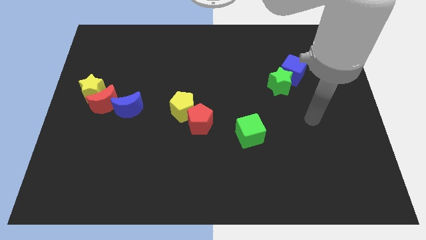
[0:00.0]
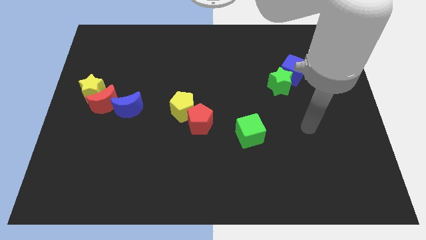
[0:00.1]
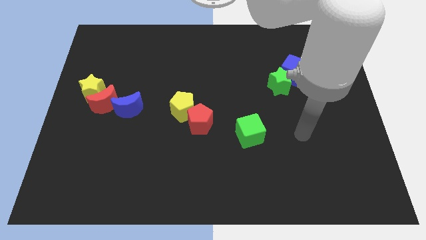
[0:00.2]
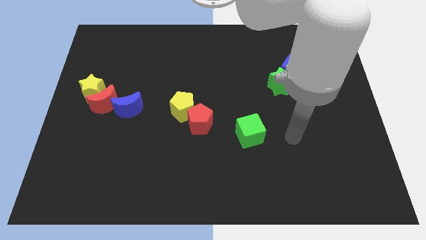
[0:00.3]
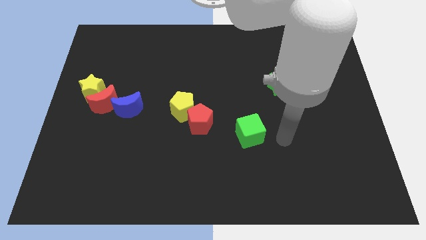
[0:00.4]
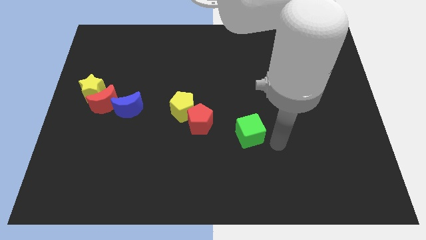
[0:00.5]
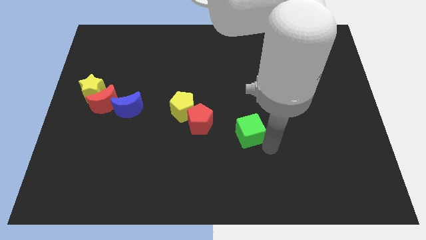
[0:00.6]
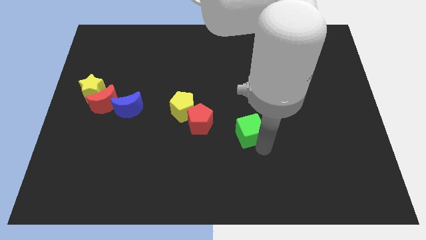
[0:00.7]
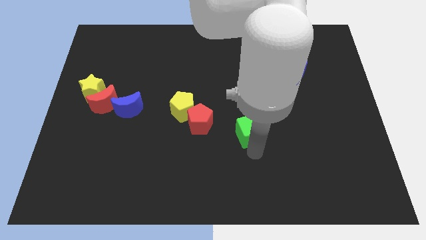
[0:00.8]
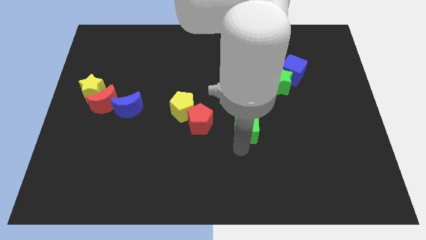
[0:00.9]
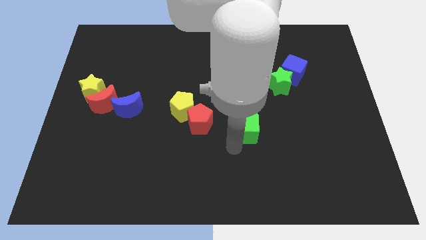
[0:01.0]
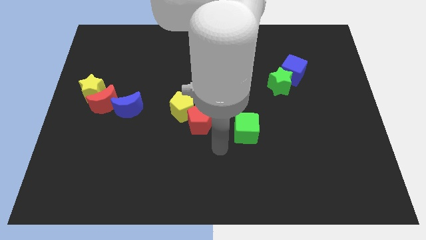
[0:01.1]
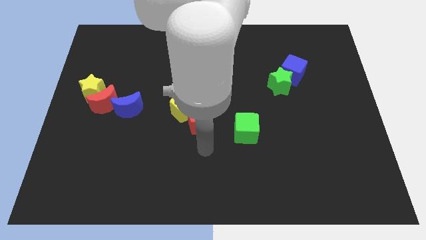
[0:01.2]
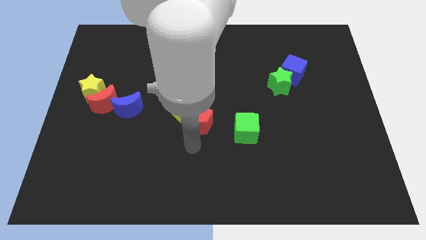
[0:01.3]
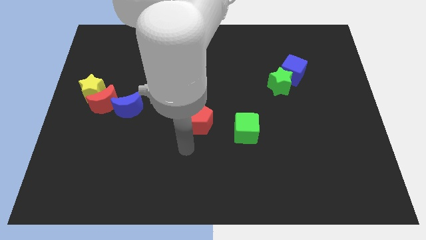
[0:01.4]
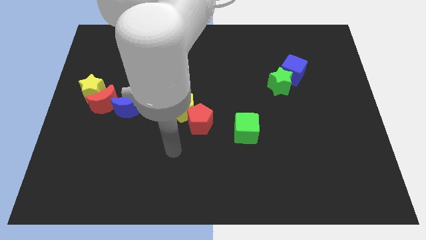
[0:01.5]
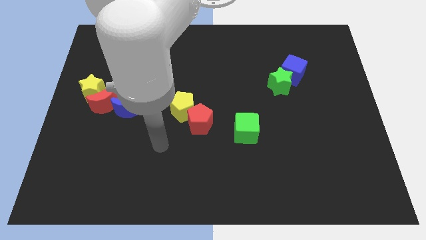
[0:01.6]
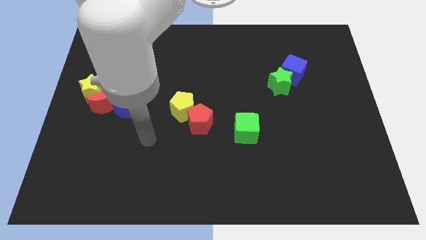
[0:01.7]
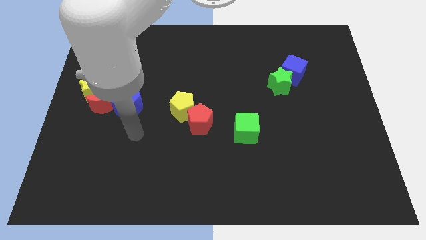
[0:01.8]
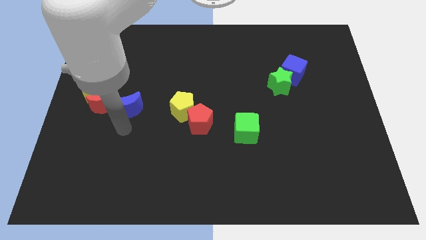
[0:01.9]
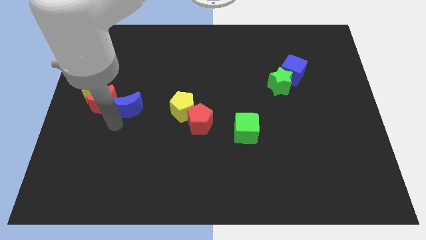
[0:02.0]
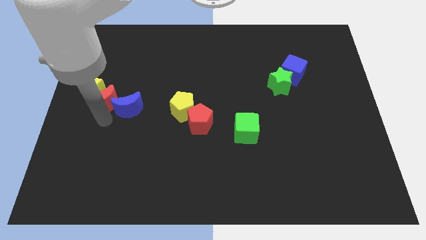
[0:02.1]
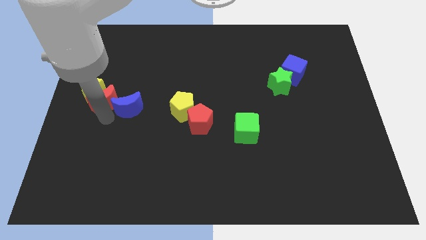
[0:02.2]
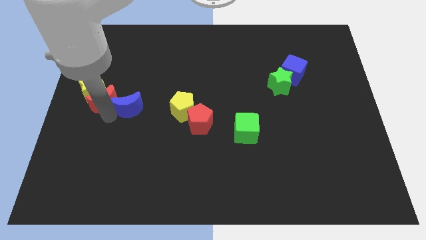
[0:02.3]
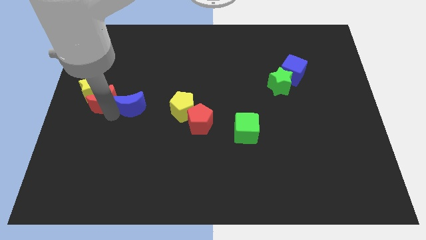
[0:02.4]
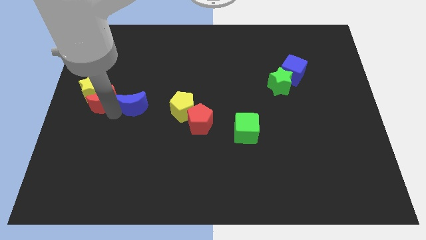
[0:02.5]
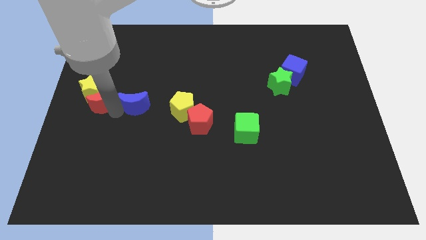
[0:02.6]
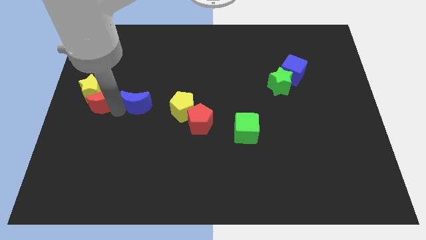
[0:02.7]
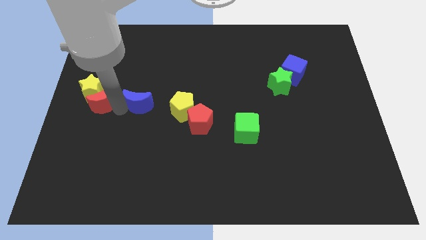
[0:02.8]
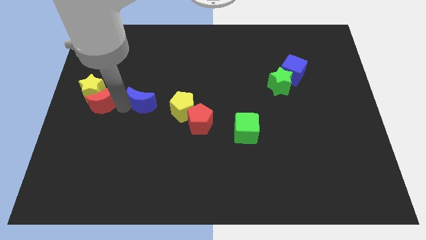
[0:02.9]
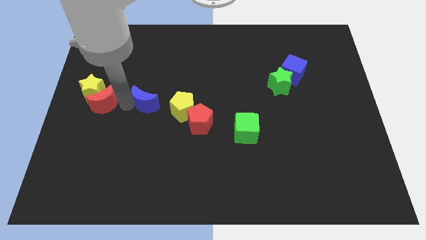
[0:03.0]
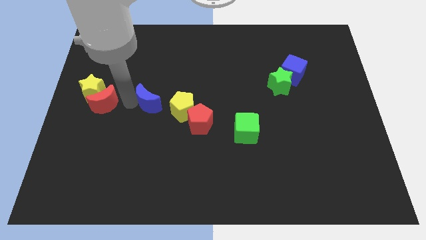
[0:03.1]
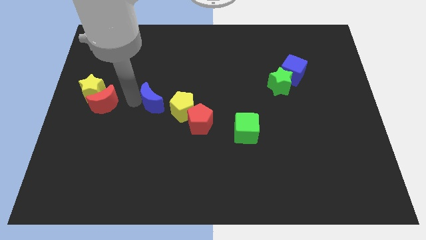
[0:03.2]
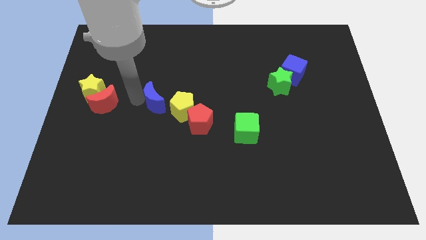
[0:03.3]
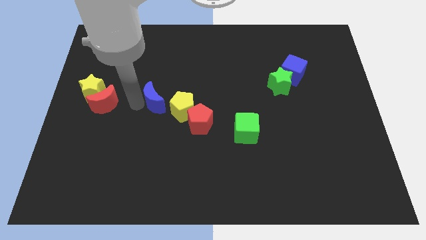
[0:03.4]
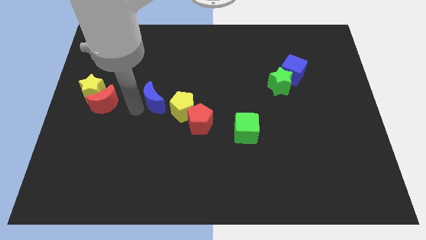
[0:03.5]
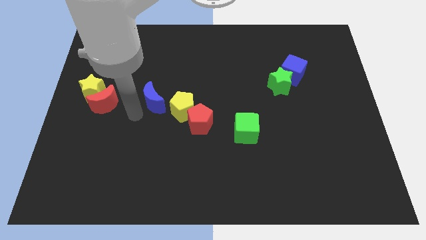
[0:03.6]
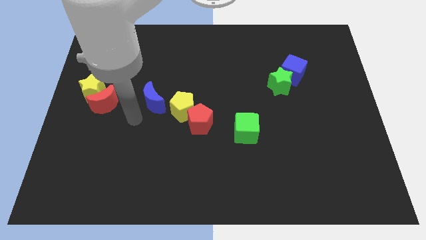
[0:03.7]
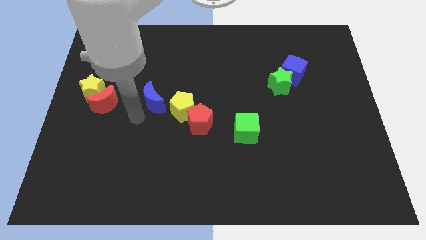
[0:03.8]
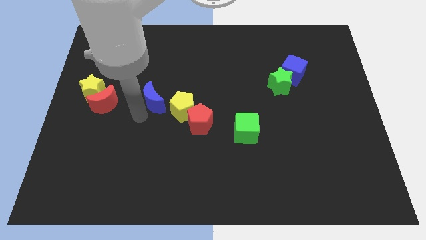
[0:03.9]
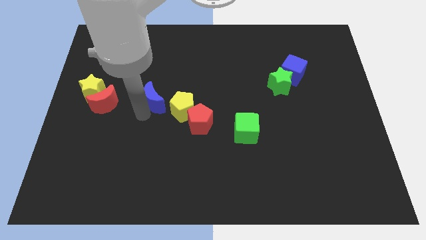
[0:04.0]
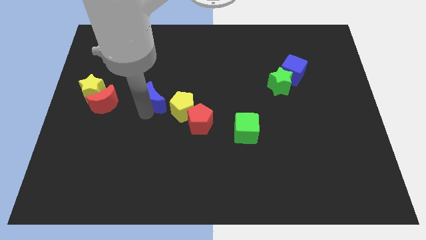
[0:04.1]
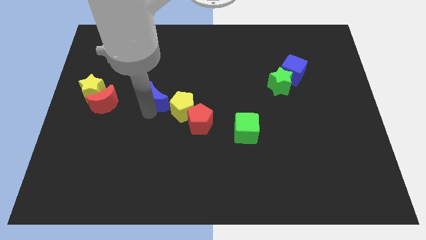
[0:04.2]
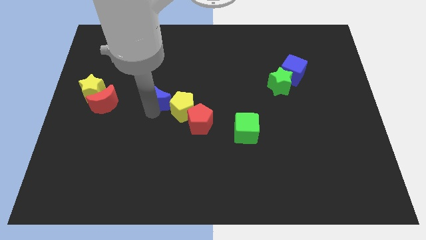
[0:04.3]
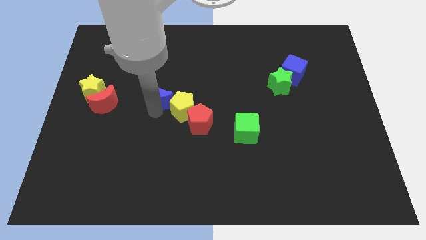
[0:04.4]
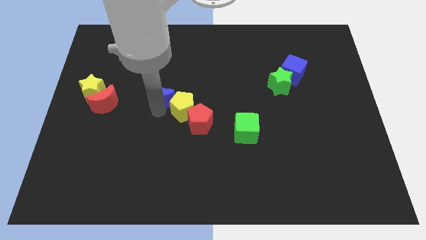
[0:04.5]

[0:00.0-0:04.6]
push the blue moon diagonally up and to the right a little bit

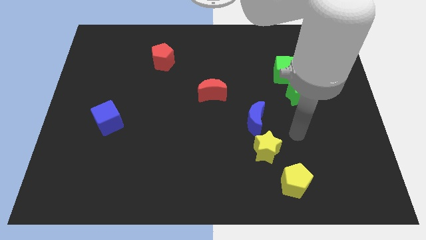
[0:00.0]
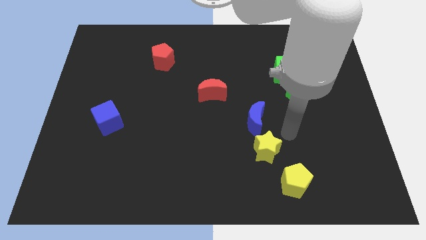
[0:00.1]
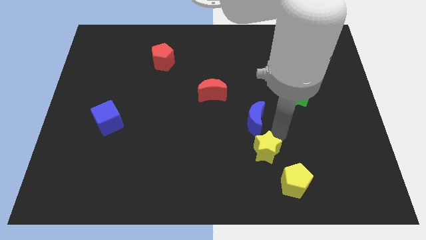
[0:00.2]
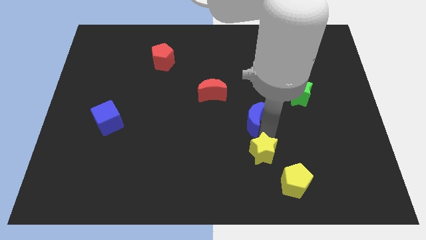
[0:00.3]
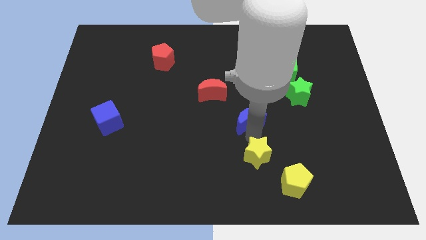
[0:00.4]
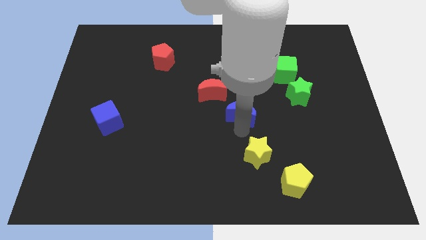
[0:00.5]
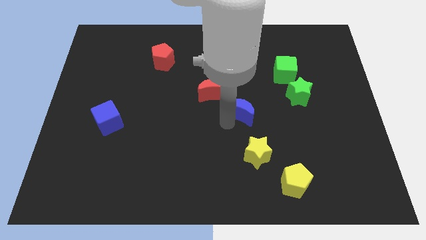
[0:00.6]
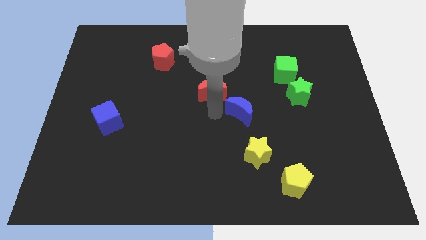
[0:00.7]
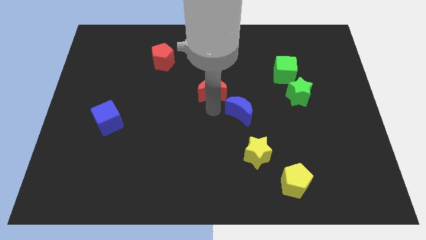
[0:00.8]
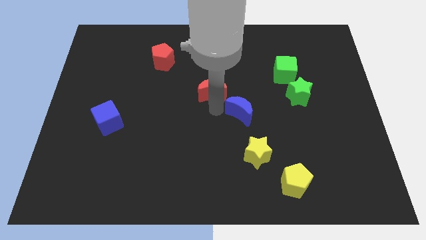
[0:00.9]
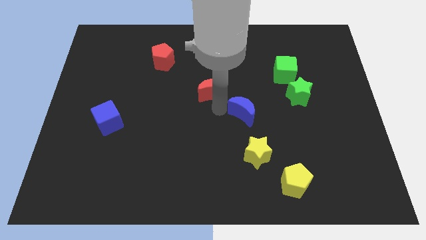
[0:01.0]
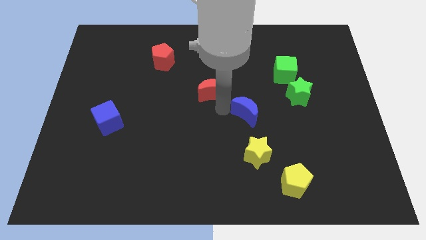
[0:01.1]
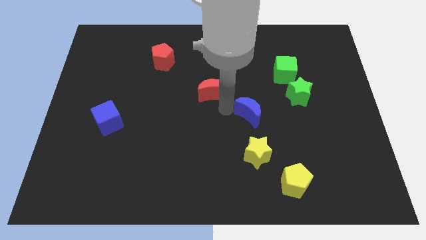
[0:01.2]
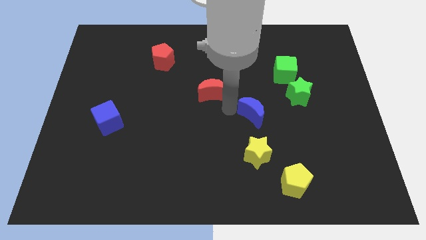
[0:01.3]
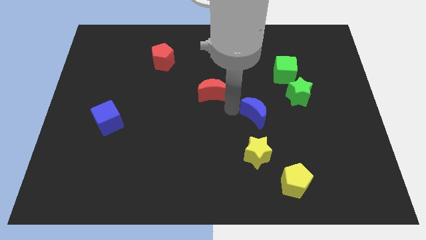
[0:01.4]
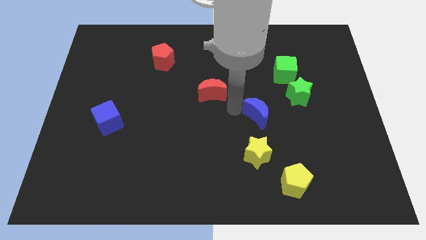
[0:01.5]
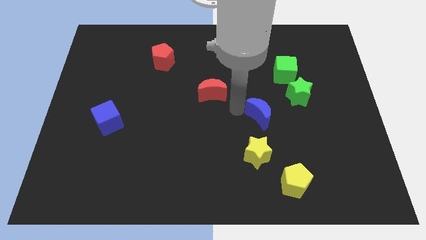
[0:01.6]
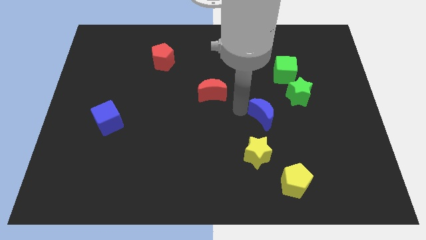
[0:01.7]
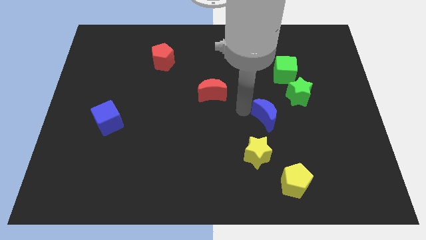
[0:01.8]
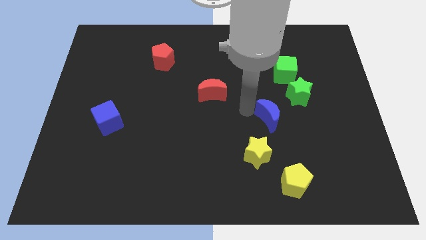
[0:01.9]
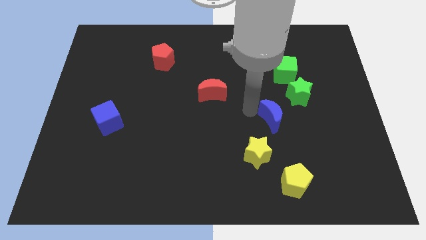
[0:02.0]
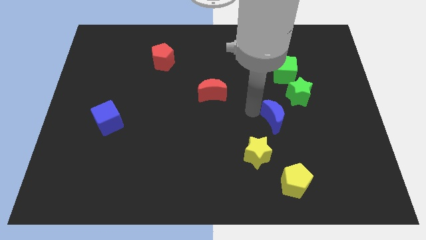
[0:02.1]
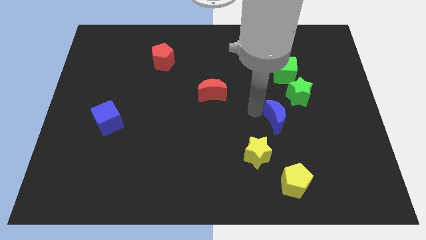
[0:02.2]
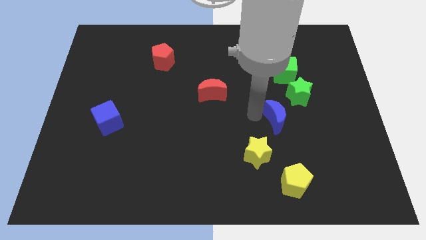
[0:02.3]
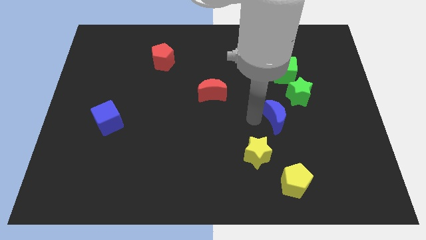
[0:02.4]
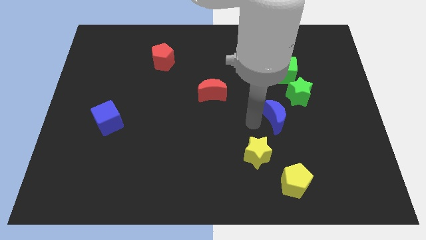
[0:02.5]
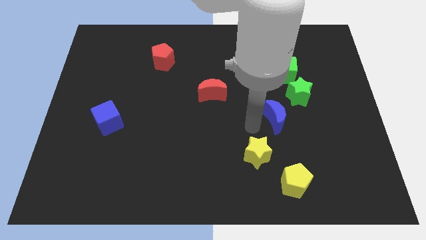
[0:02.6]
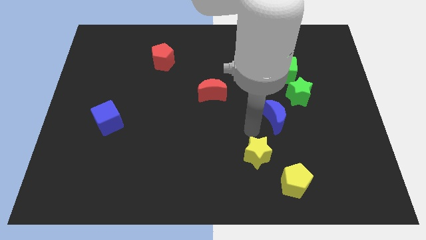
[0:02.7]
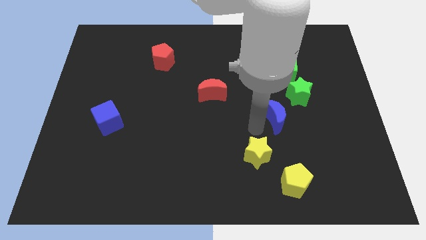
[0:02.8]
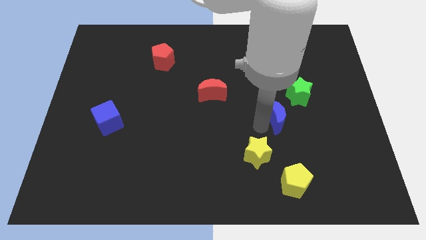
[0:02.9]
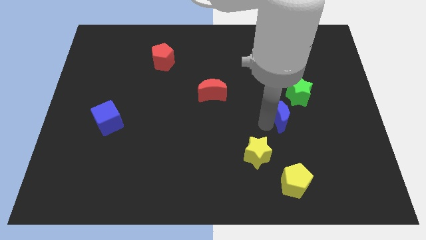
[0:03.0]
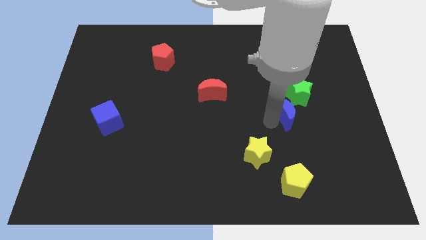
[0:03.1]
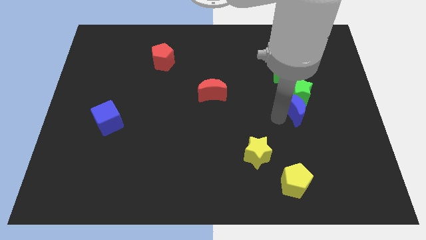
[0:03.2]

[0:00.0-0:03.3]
slide the blue moon a little bit upwards and then to the right
